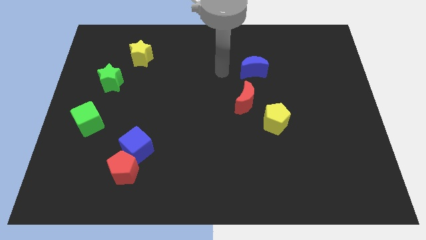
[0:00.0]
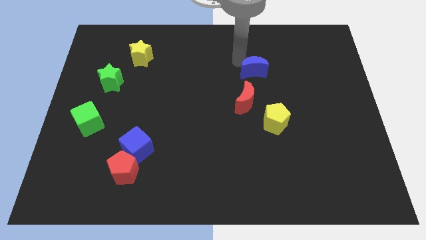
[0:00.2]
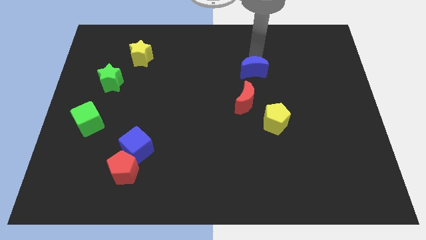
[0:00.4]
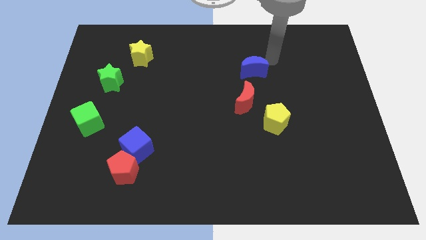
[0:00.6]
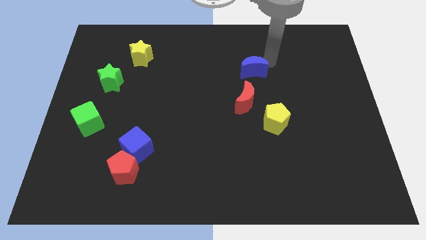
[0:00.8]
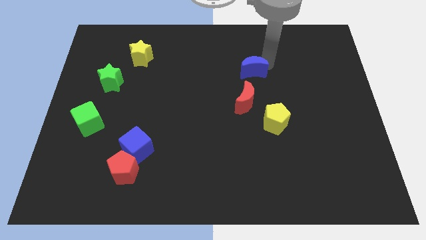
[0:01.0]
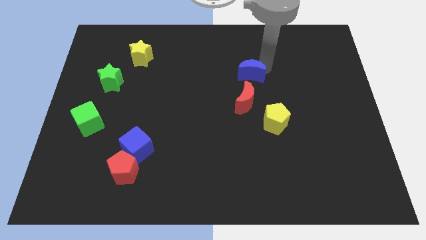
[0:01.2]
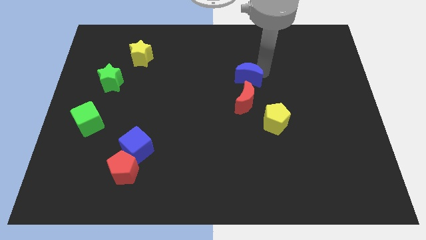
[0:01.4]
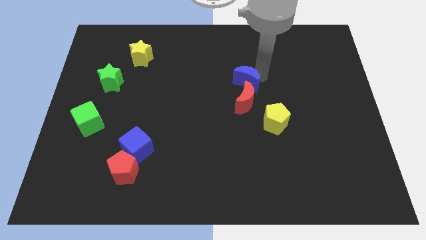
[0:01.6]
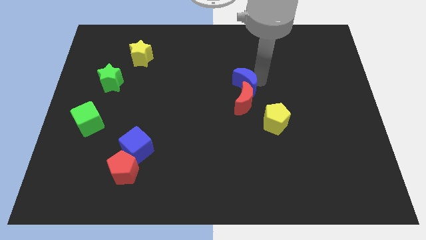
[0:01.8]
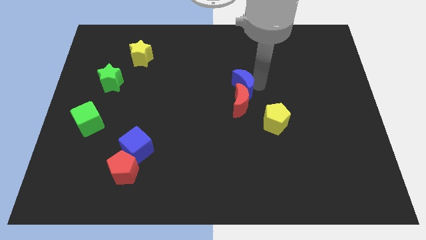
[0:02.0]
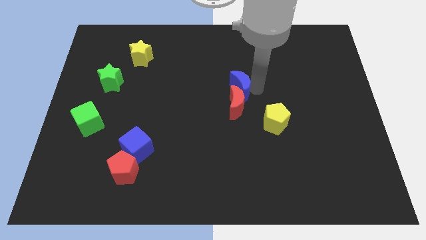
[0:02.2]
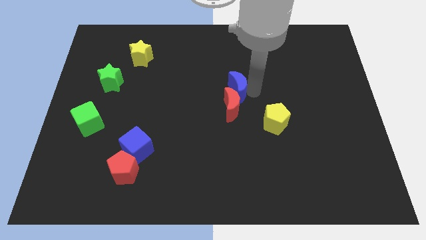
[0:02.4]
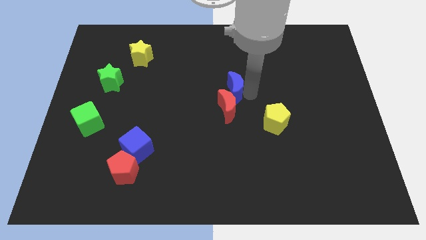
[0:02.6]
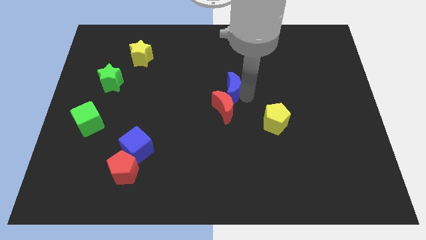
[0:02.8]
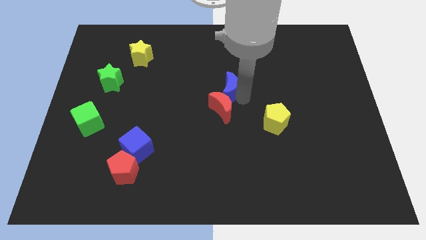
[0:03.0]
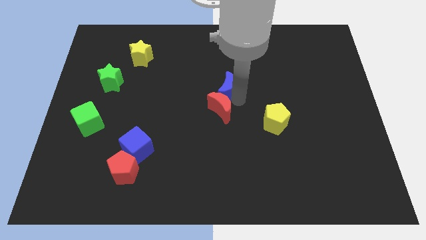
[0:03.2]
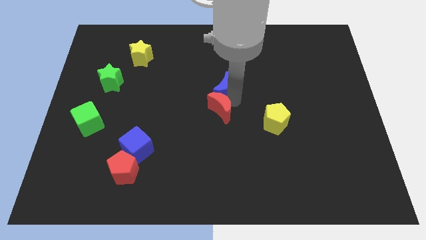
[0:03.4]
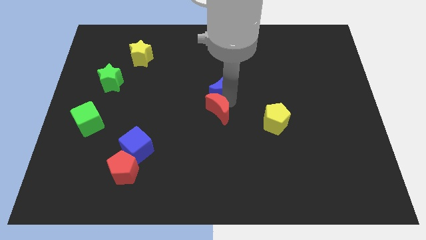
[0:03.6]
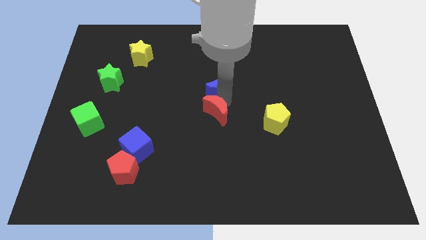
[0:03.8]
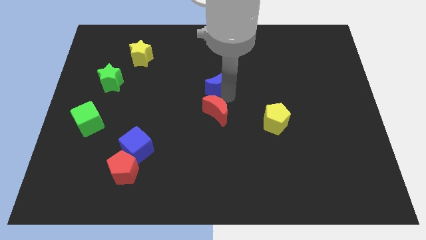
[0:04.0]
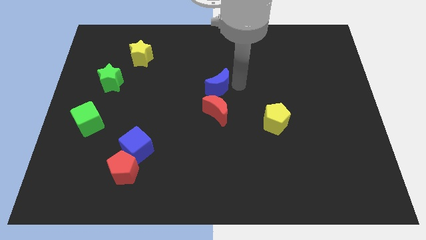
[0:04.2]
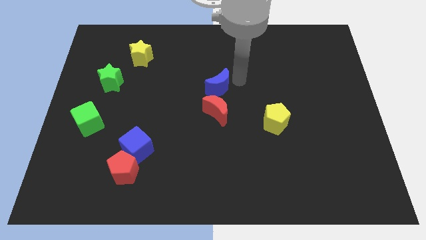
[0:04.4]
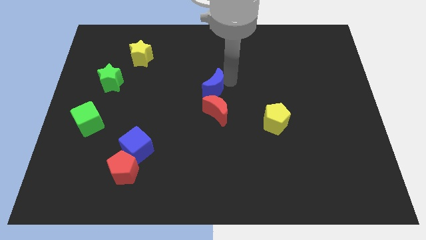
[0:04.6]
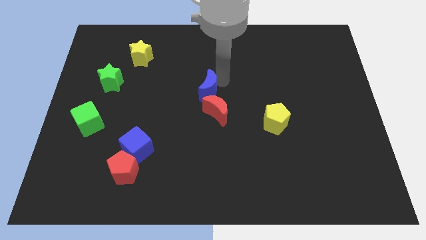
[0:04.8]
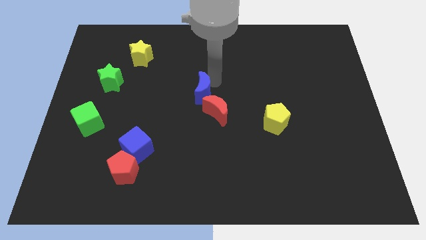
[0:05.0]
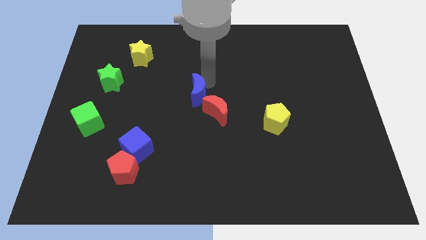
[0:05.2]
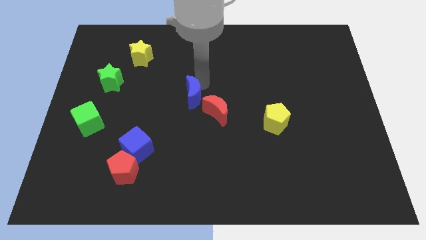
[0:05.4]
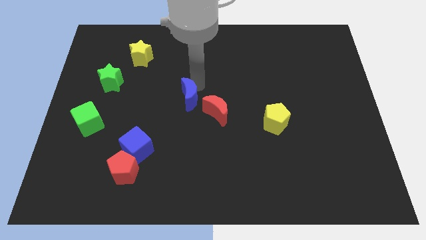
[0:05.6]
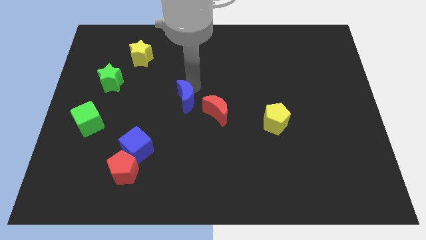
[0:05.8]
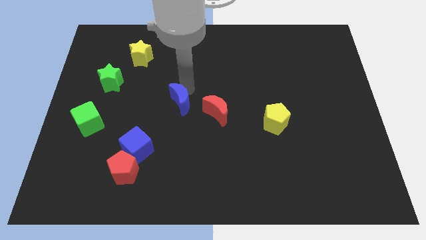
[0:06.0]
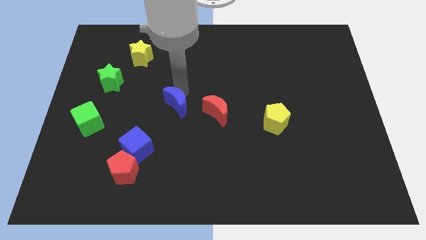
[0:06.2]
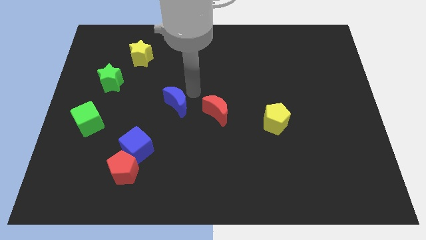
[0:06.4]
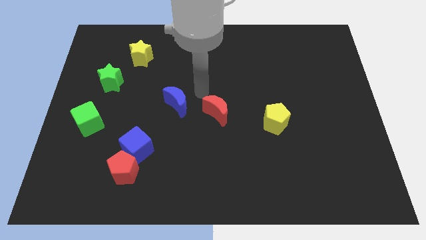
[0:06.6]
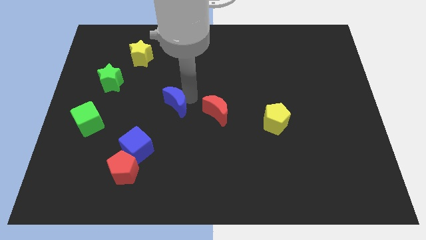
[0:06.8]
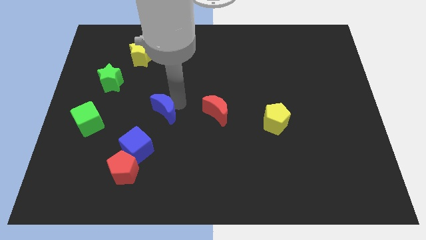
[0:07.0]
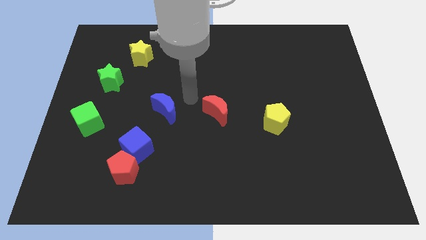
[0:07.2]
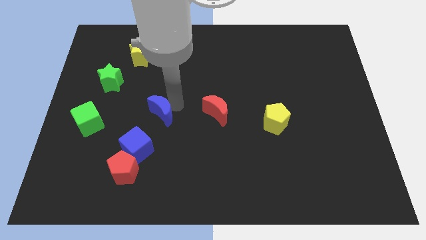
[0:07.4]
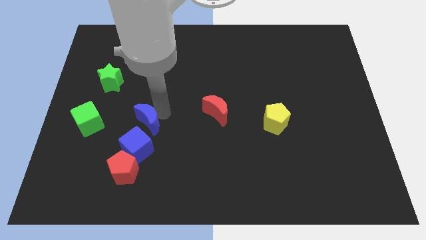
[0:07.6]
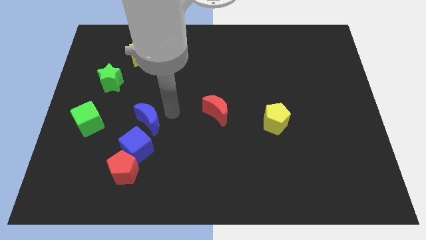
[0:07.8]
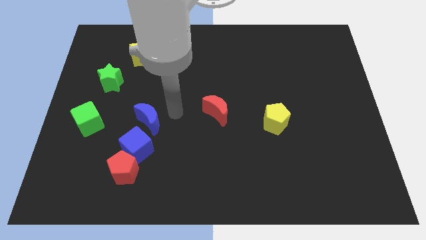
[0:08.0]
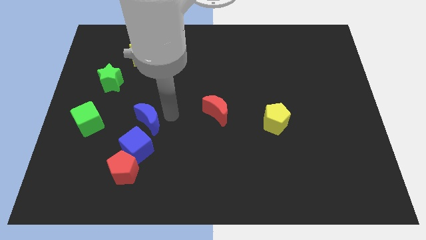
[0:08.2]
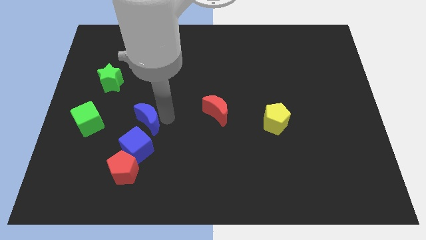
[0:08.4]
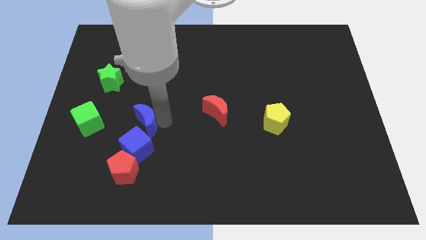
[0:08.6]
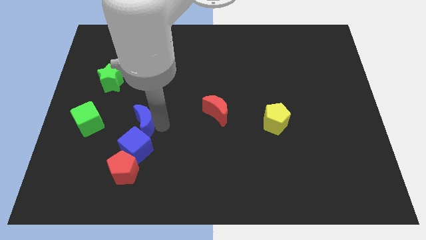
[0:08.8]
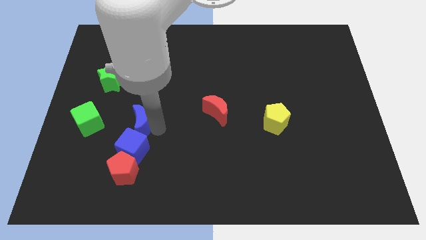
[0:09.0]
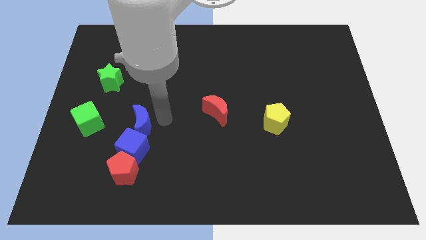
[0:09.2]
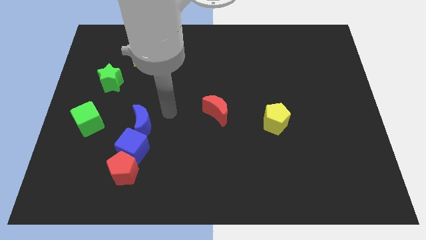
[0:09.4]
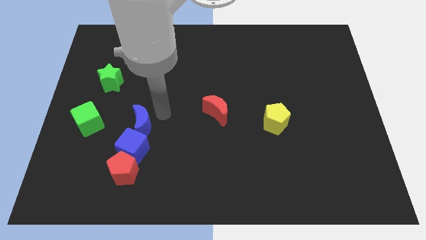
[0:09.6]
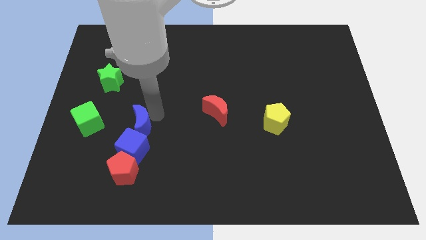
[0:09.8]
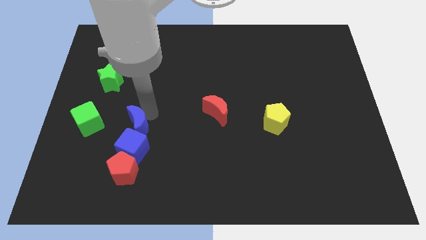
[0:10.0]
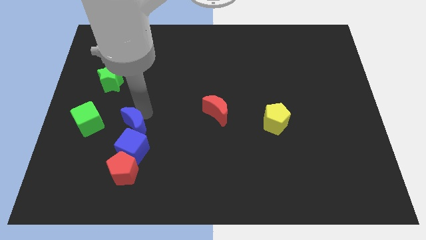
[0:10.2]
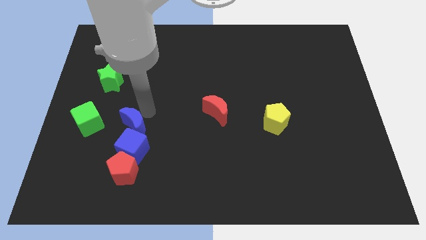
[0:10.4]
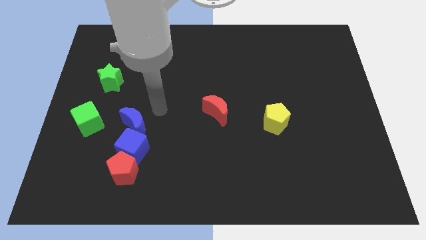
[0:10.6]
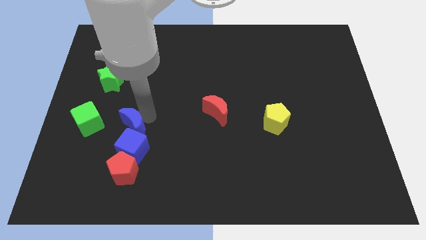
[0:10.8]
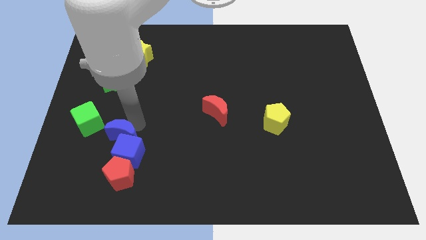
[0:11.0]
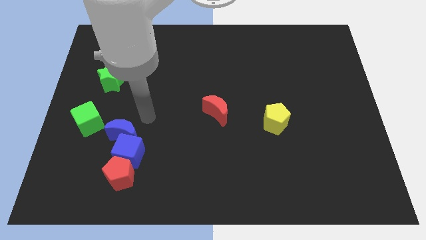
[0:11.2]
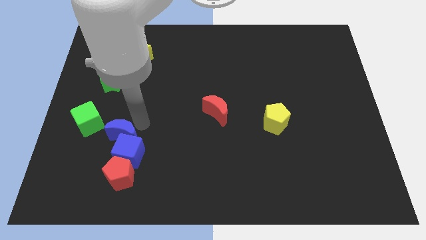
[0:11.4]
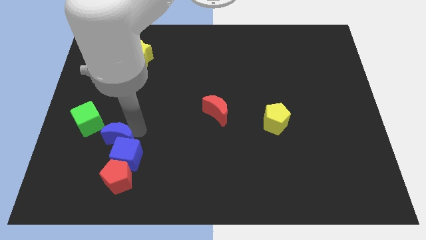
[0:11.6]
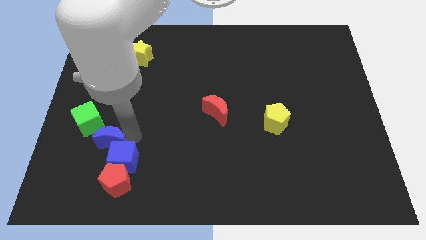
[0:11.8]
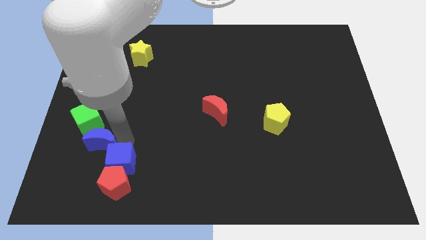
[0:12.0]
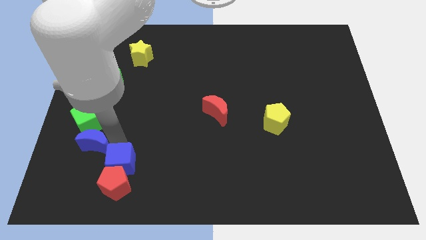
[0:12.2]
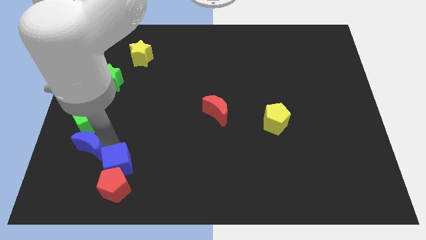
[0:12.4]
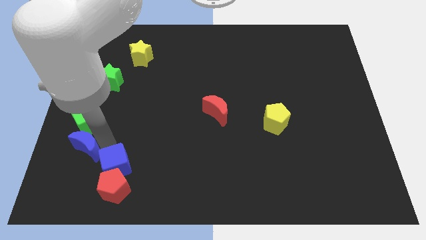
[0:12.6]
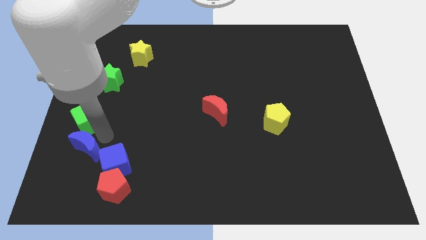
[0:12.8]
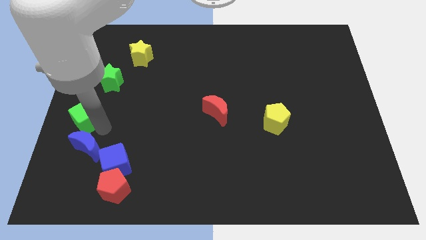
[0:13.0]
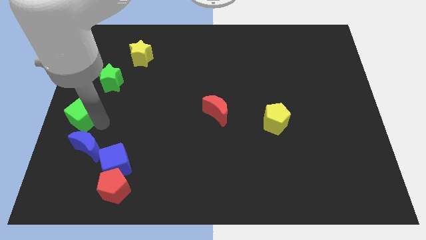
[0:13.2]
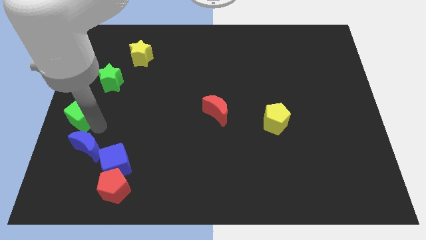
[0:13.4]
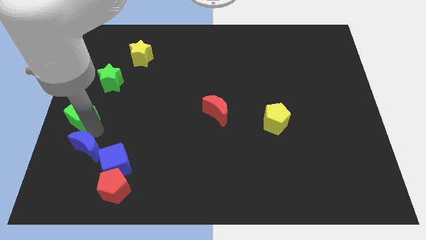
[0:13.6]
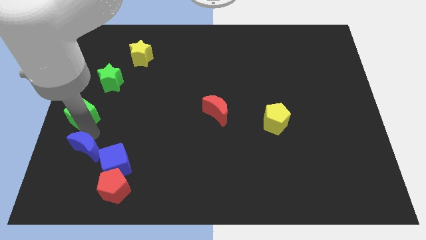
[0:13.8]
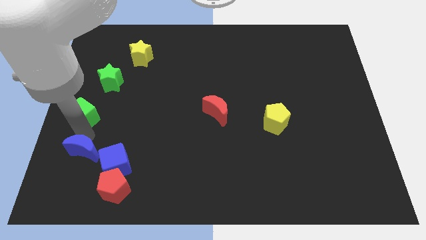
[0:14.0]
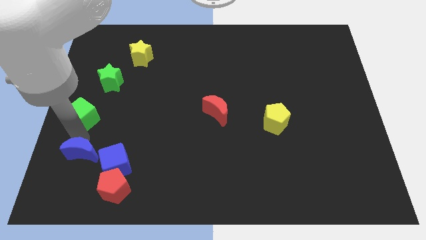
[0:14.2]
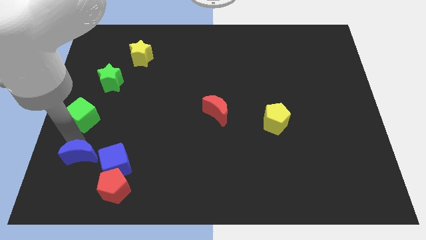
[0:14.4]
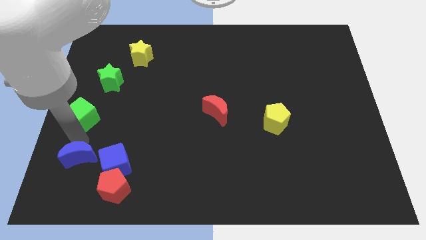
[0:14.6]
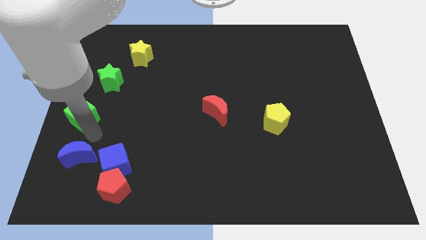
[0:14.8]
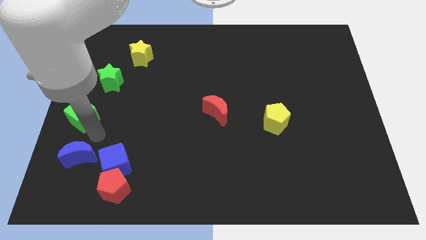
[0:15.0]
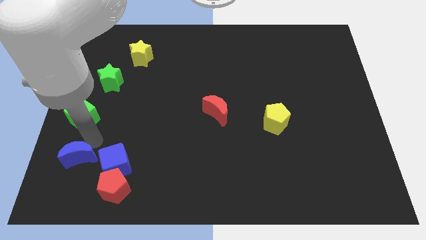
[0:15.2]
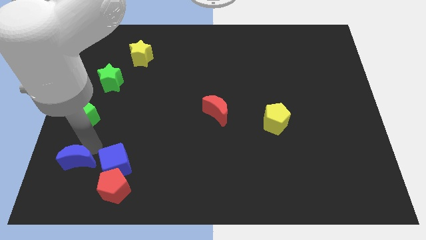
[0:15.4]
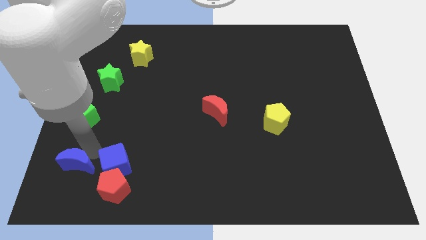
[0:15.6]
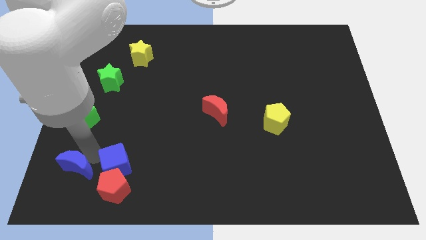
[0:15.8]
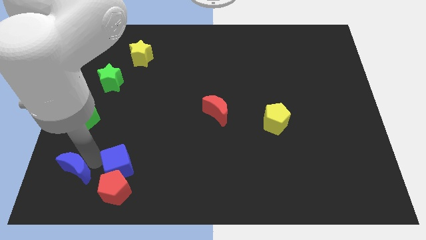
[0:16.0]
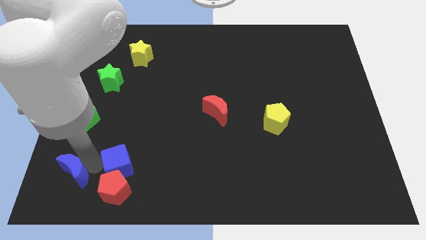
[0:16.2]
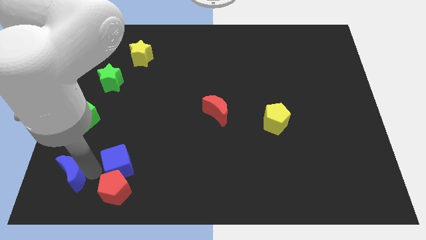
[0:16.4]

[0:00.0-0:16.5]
slide the blue moon to the bottom left
